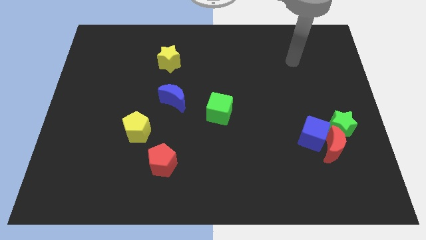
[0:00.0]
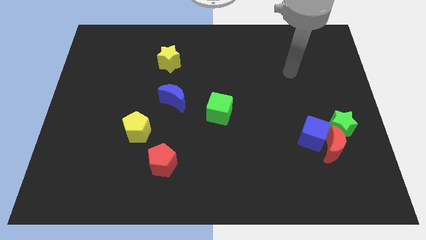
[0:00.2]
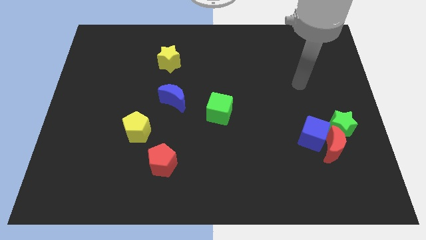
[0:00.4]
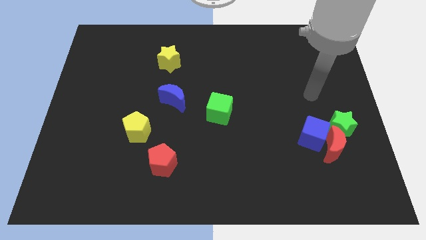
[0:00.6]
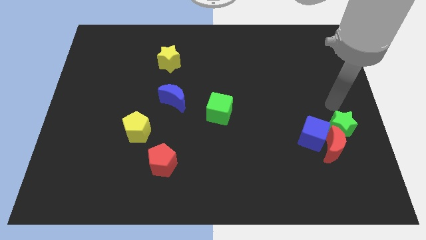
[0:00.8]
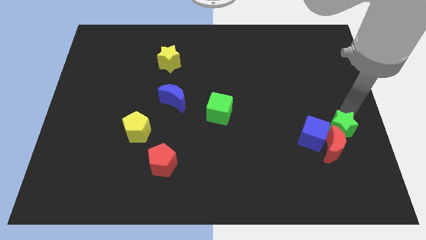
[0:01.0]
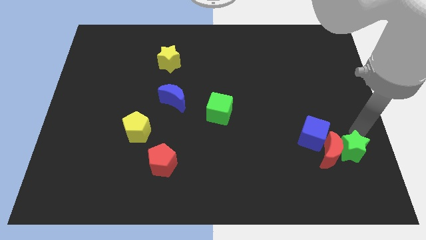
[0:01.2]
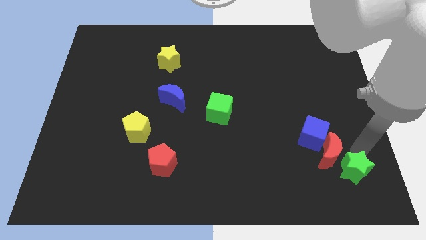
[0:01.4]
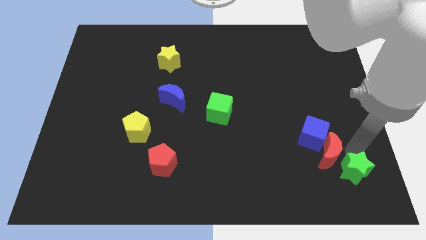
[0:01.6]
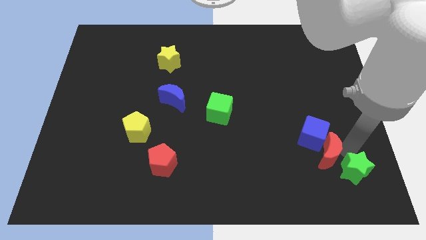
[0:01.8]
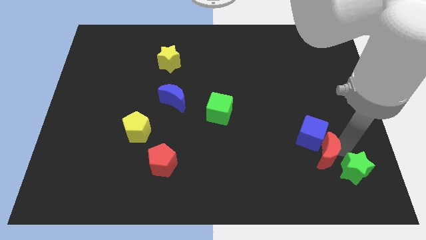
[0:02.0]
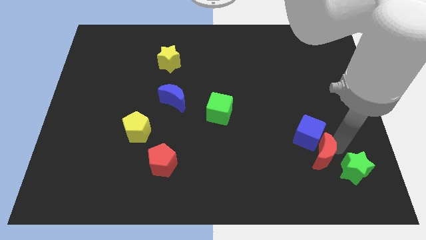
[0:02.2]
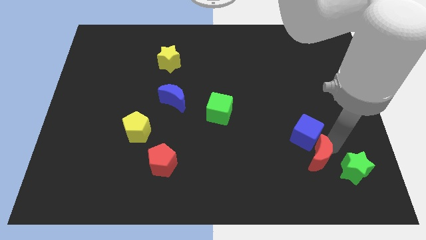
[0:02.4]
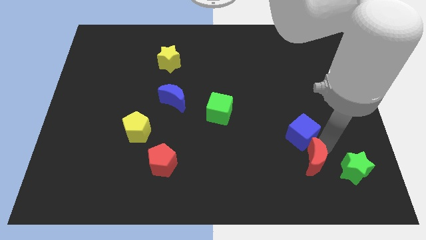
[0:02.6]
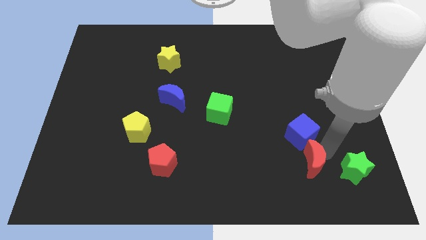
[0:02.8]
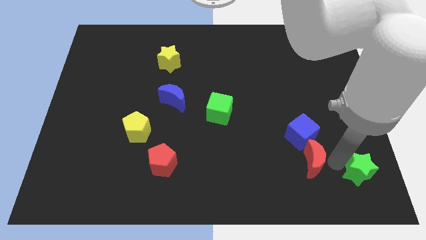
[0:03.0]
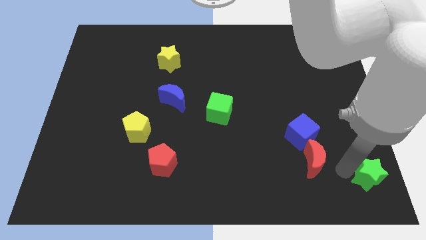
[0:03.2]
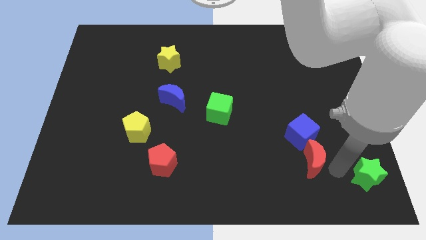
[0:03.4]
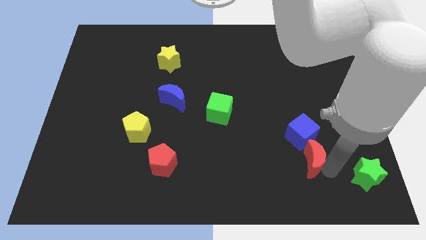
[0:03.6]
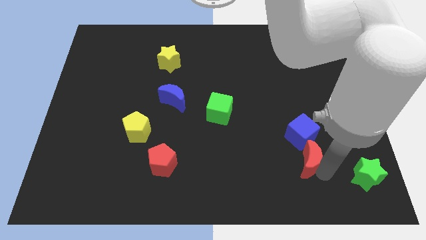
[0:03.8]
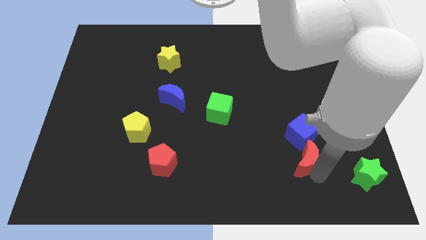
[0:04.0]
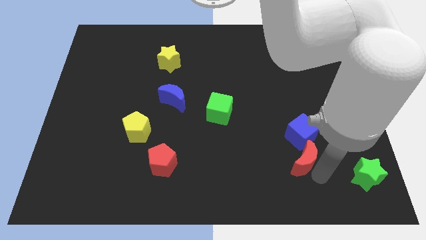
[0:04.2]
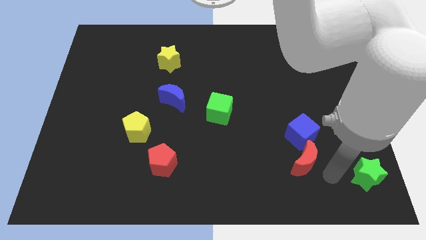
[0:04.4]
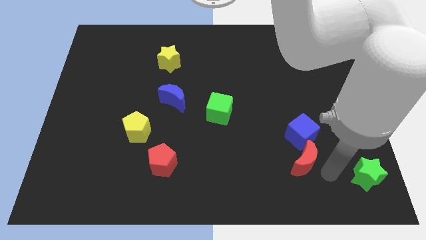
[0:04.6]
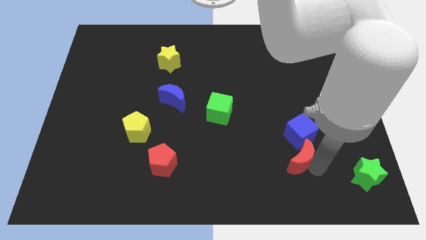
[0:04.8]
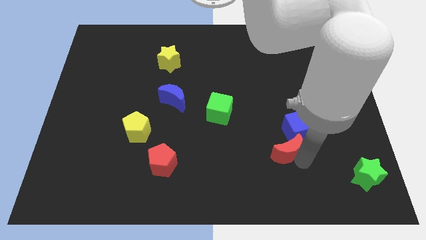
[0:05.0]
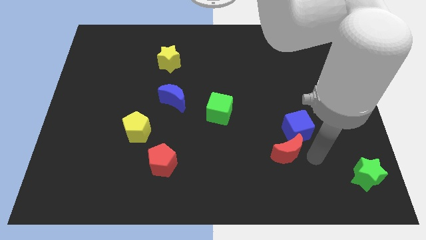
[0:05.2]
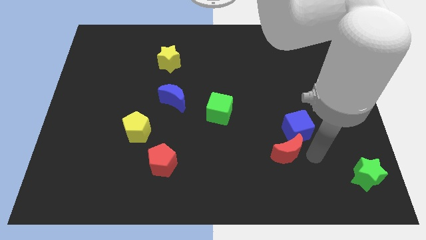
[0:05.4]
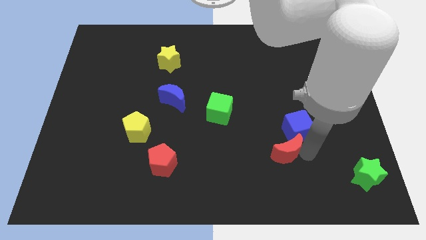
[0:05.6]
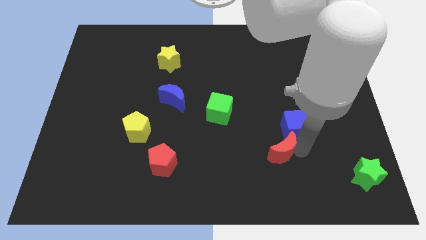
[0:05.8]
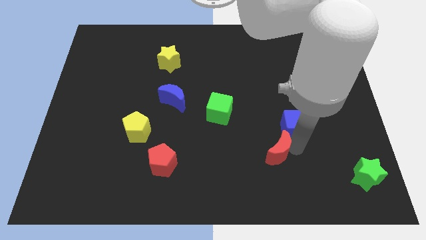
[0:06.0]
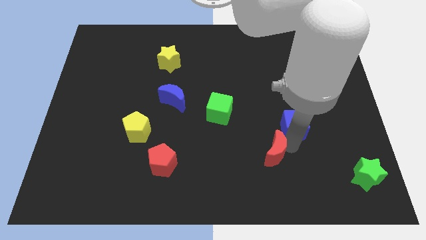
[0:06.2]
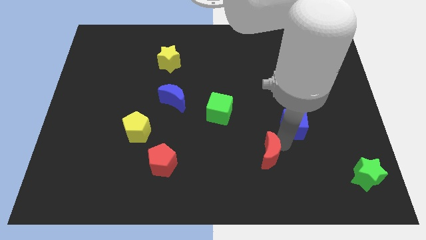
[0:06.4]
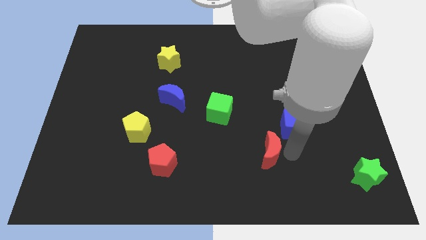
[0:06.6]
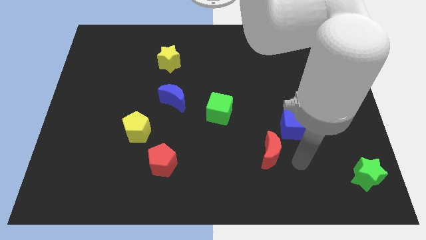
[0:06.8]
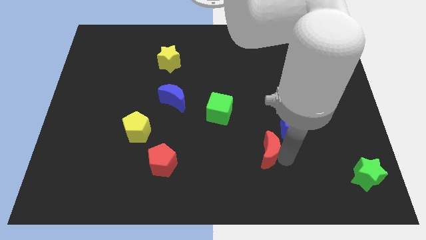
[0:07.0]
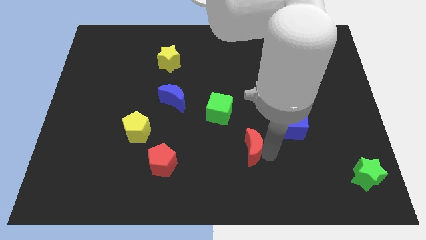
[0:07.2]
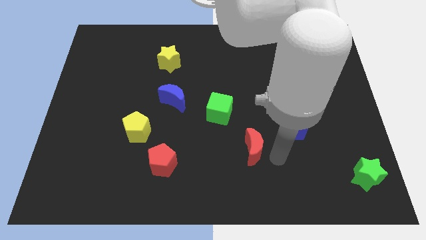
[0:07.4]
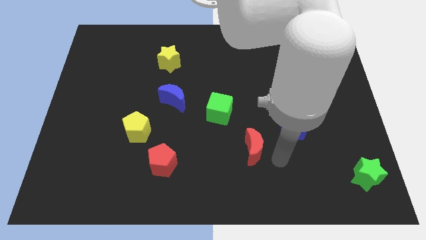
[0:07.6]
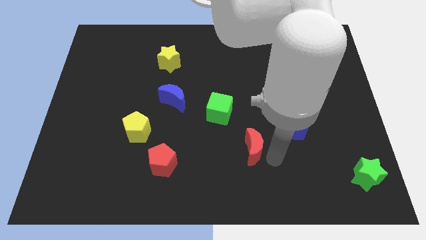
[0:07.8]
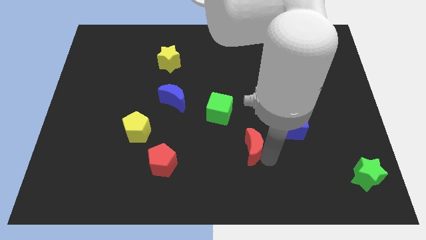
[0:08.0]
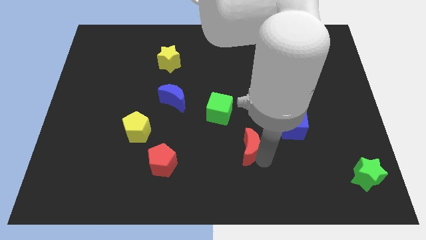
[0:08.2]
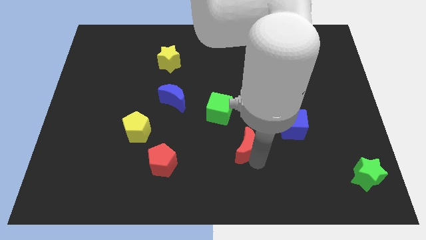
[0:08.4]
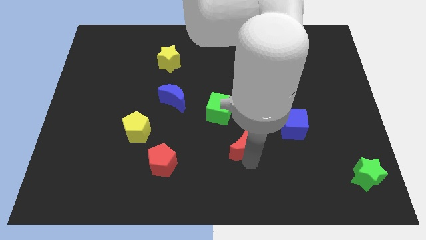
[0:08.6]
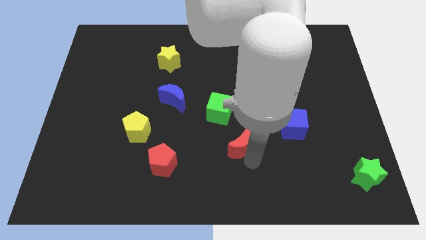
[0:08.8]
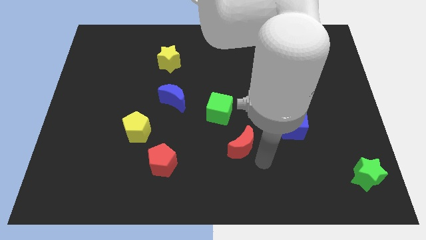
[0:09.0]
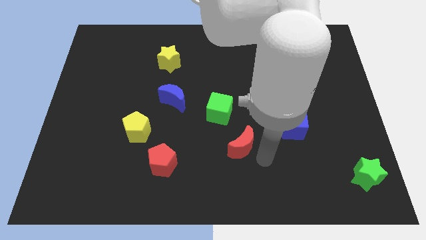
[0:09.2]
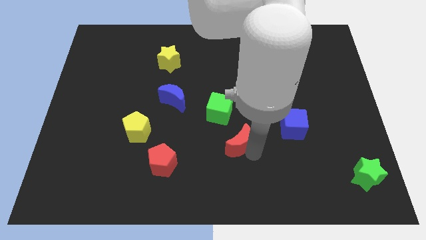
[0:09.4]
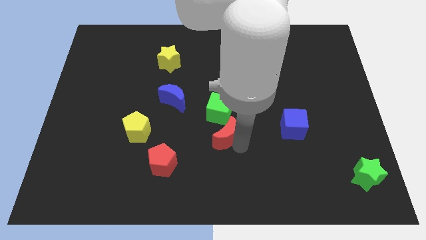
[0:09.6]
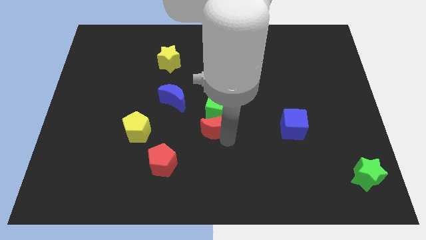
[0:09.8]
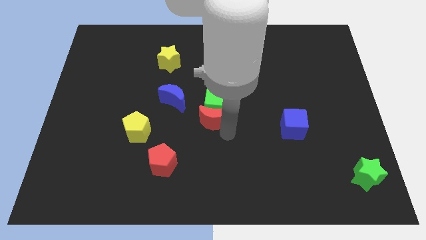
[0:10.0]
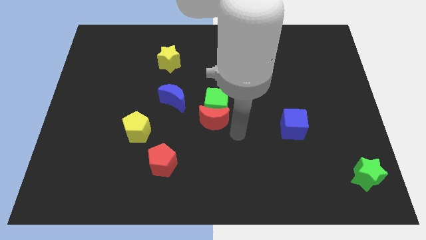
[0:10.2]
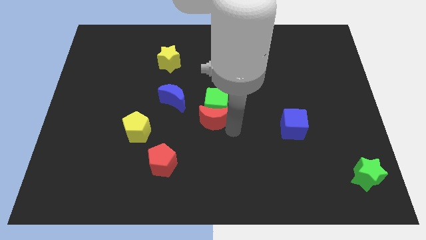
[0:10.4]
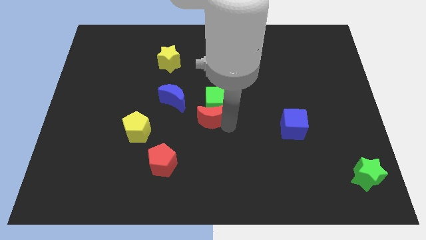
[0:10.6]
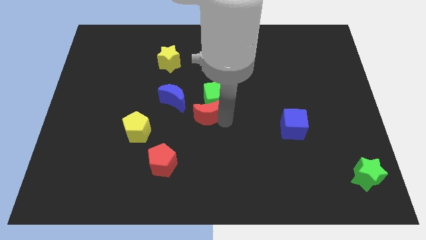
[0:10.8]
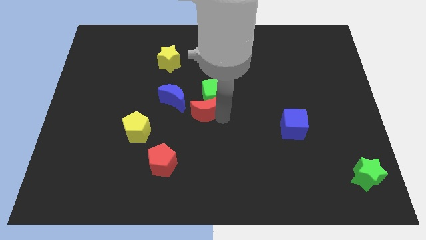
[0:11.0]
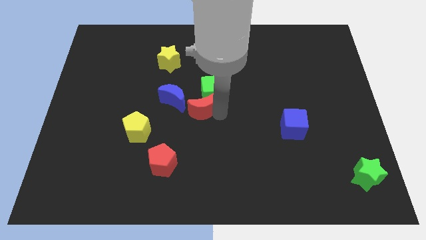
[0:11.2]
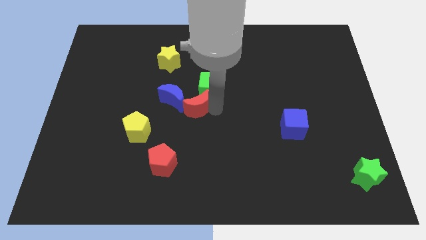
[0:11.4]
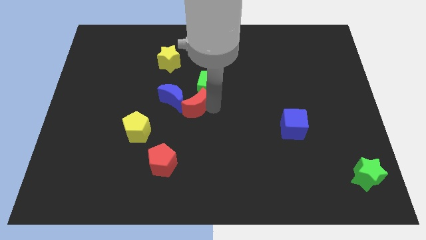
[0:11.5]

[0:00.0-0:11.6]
slide the red moon next to the blue moon

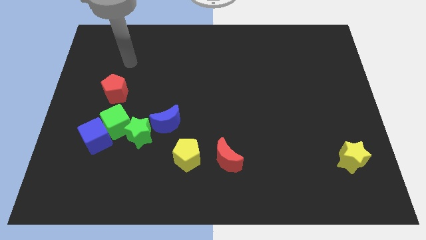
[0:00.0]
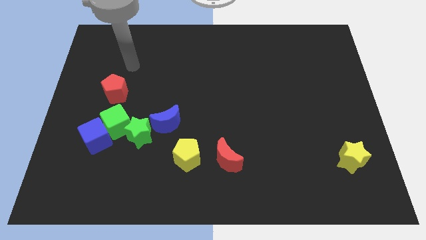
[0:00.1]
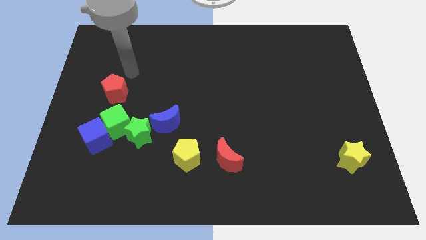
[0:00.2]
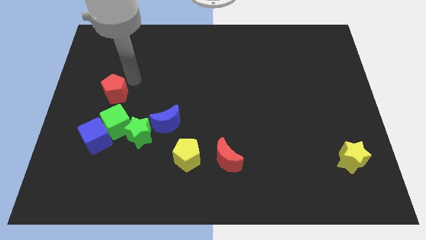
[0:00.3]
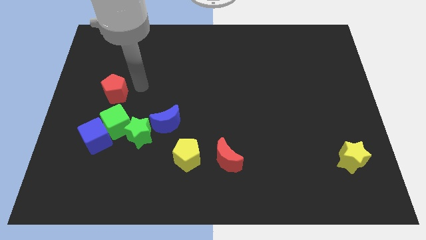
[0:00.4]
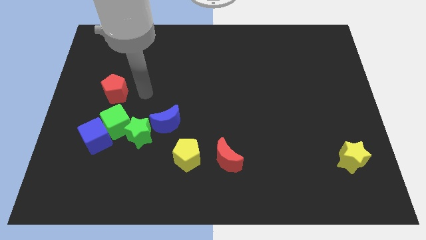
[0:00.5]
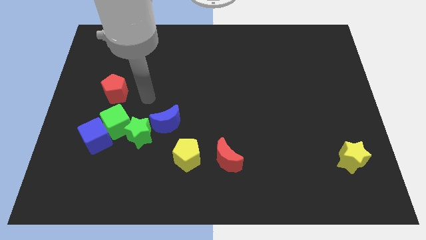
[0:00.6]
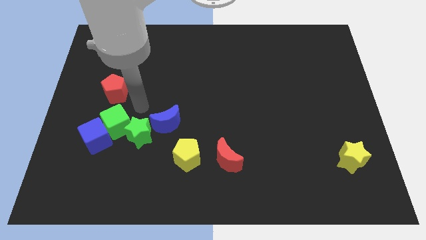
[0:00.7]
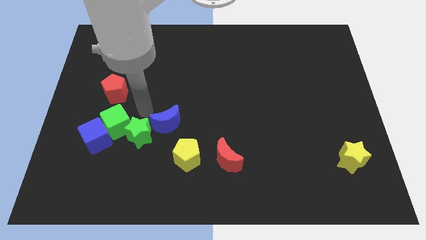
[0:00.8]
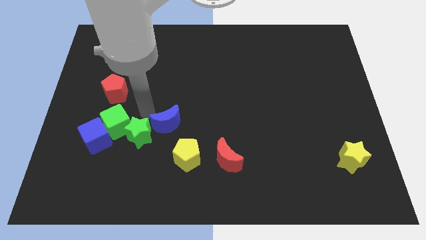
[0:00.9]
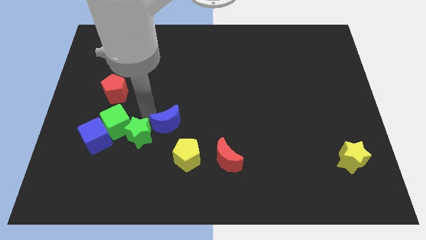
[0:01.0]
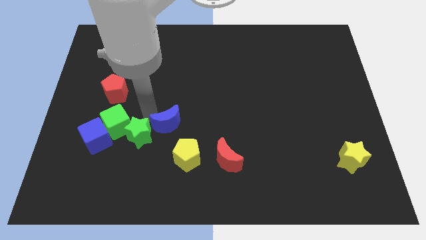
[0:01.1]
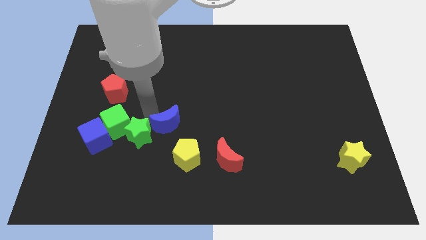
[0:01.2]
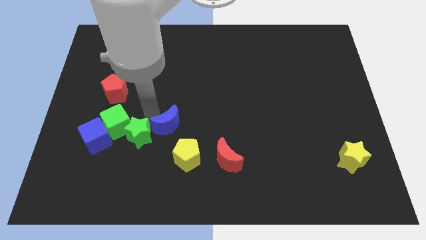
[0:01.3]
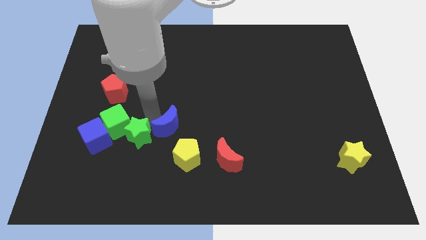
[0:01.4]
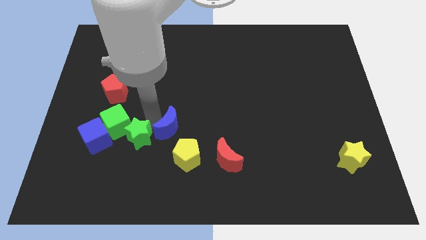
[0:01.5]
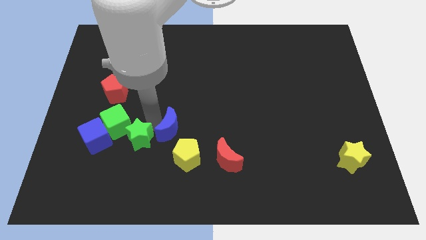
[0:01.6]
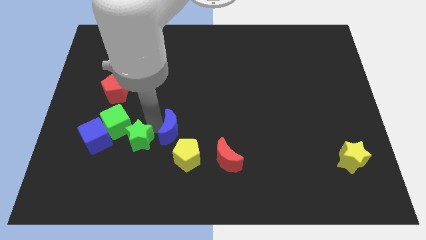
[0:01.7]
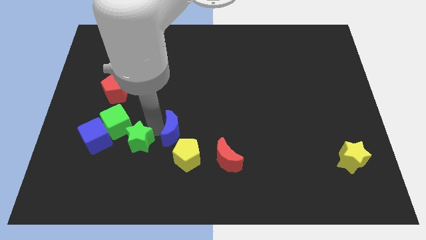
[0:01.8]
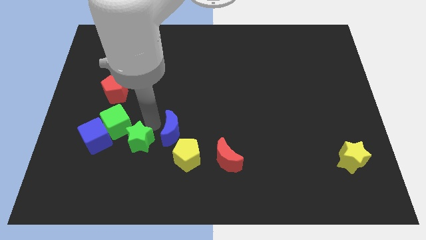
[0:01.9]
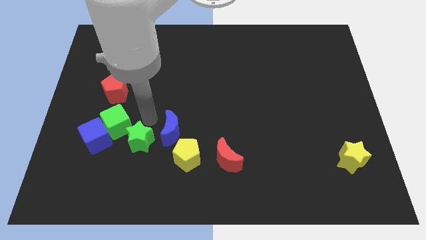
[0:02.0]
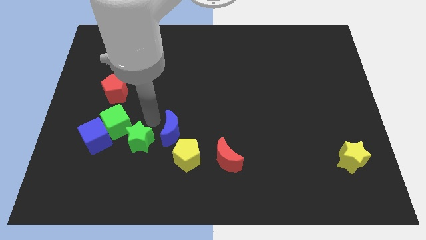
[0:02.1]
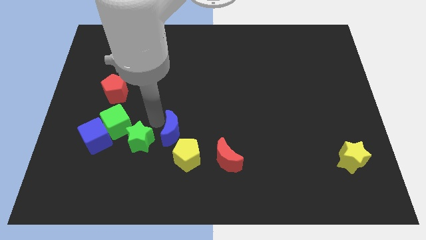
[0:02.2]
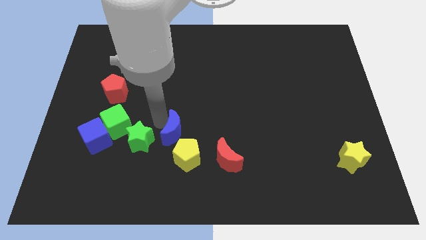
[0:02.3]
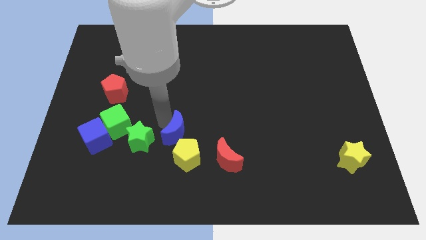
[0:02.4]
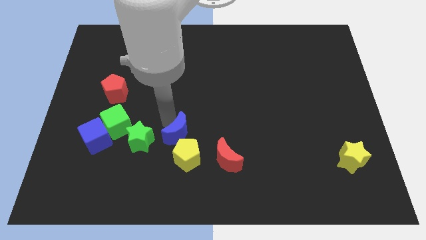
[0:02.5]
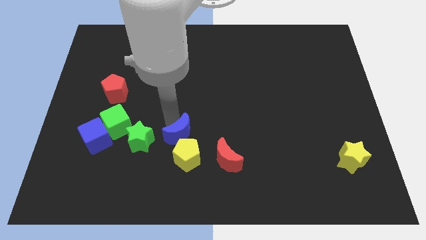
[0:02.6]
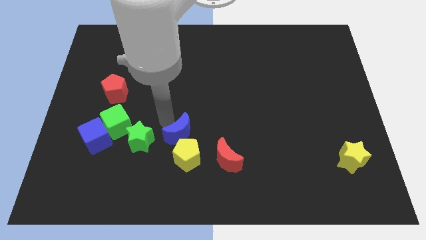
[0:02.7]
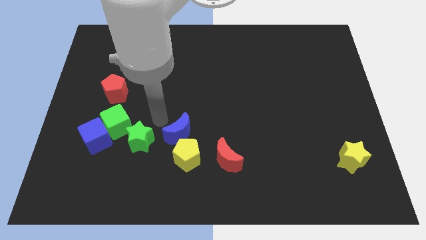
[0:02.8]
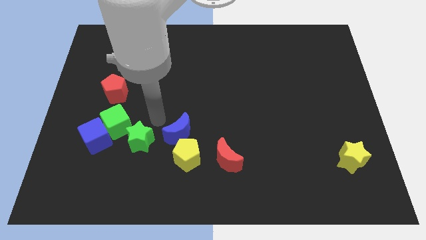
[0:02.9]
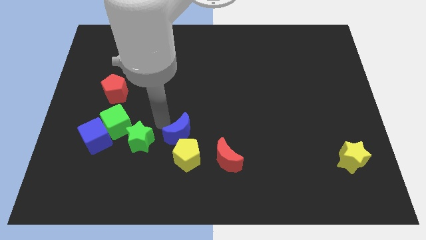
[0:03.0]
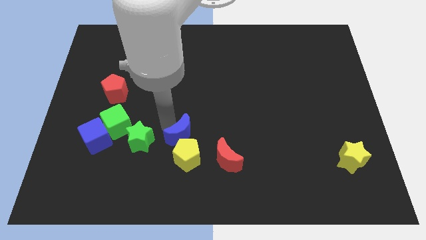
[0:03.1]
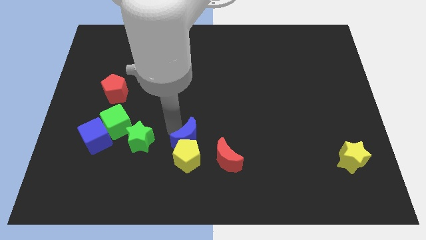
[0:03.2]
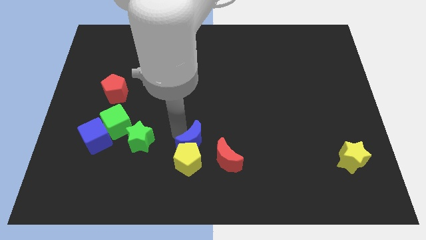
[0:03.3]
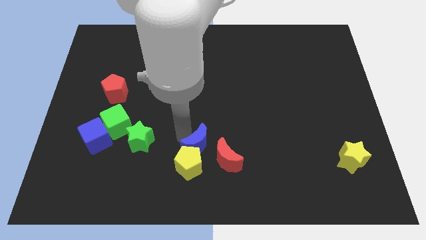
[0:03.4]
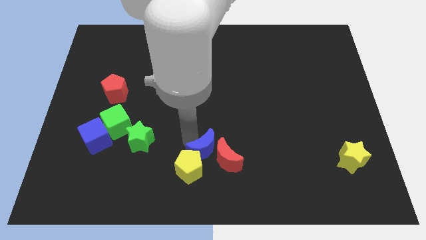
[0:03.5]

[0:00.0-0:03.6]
push the blue moon towards the red moon
